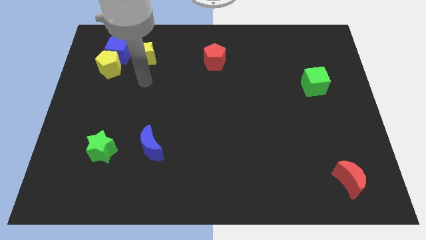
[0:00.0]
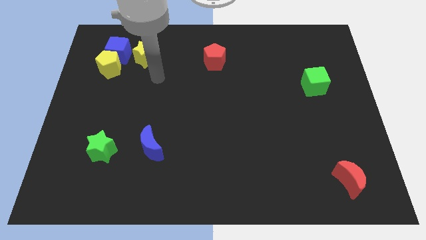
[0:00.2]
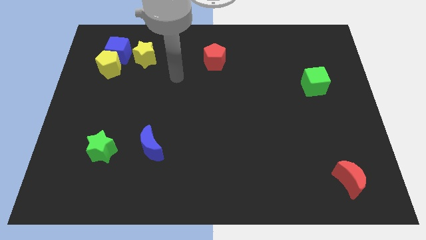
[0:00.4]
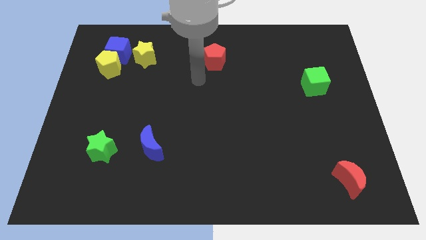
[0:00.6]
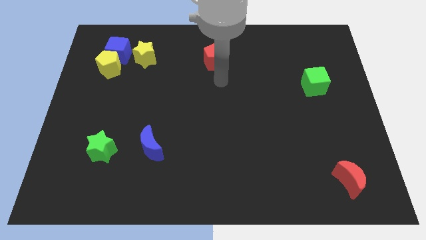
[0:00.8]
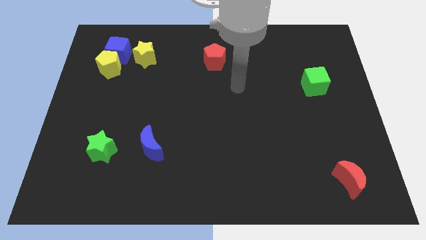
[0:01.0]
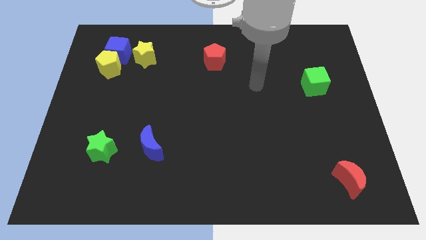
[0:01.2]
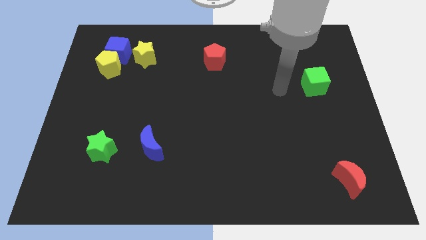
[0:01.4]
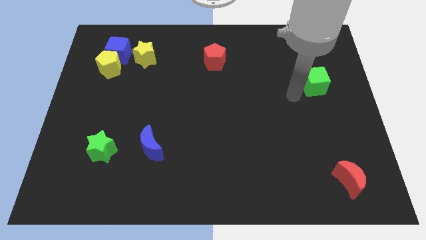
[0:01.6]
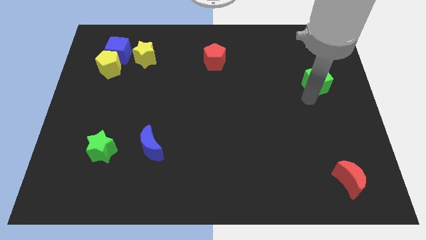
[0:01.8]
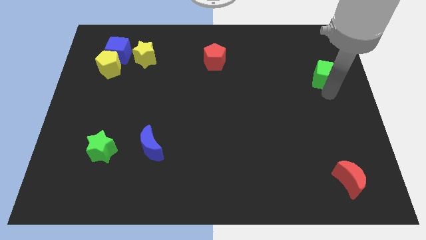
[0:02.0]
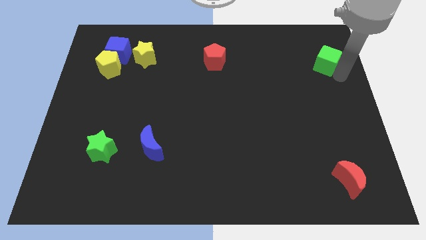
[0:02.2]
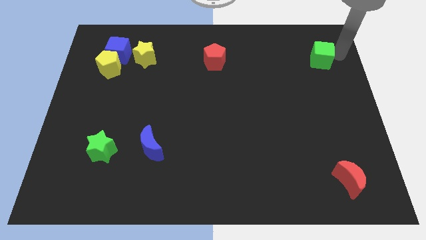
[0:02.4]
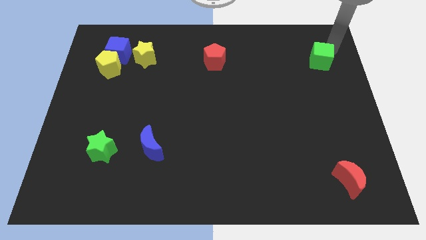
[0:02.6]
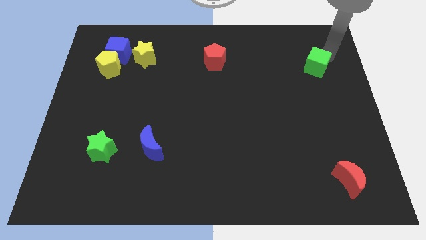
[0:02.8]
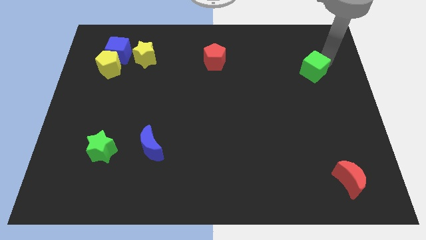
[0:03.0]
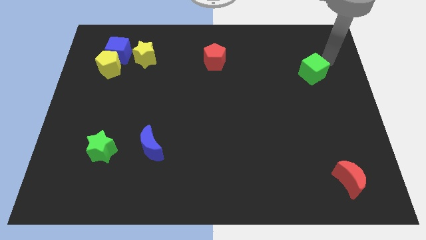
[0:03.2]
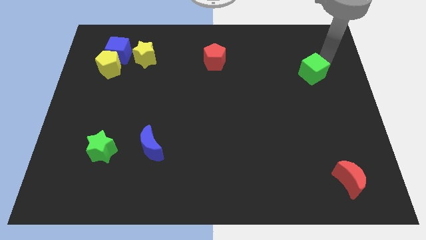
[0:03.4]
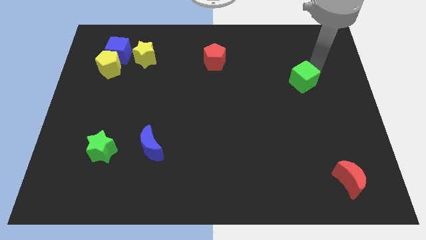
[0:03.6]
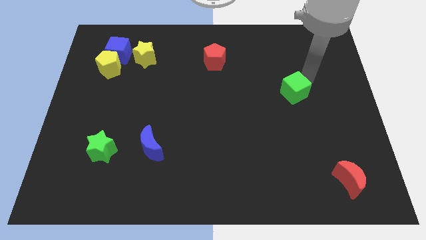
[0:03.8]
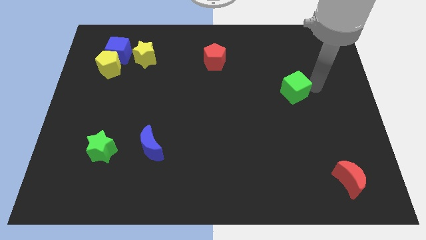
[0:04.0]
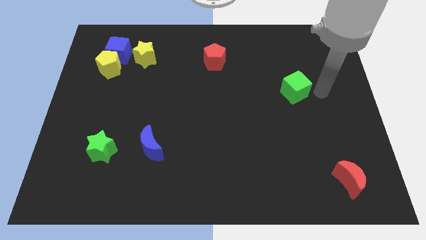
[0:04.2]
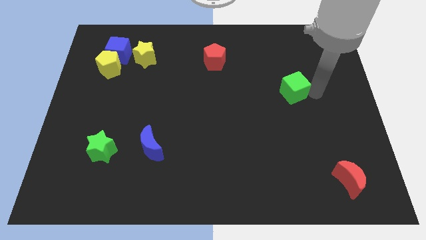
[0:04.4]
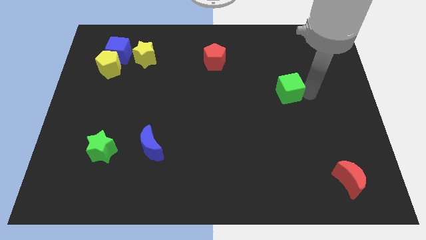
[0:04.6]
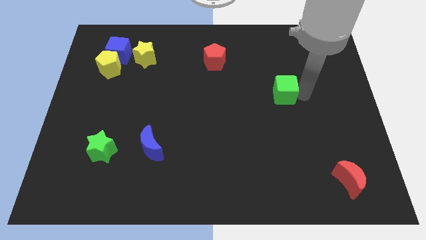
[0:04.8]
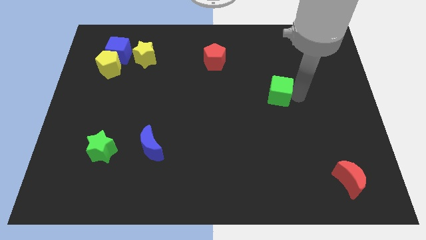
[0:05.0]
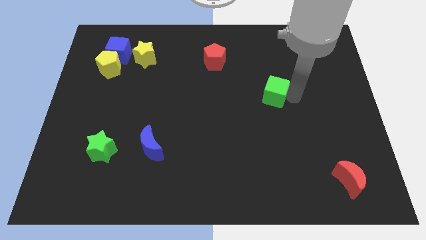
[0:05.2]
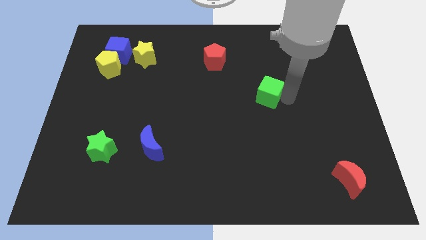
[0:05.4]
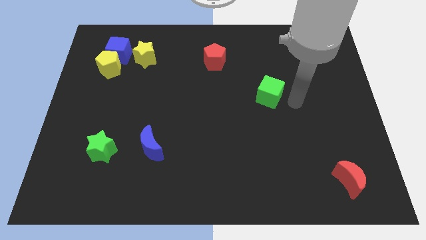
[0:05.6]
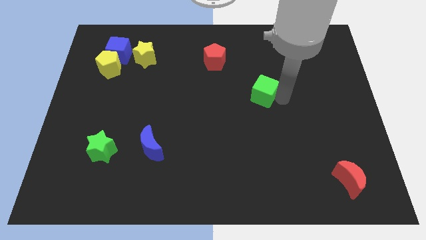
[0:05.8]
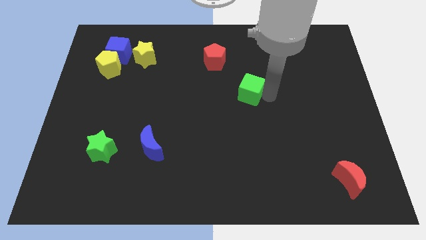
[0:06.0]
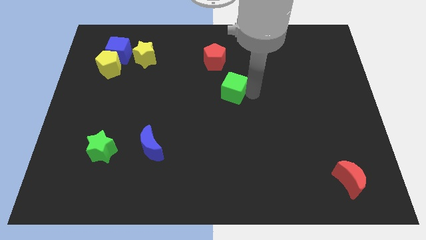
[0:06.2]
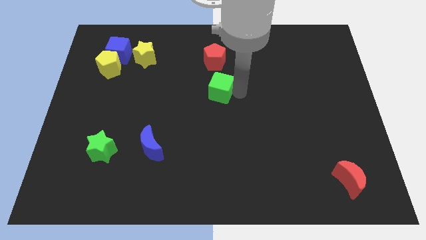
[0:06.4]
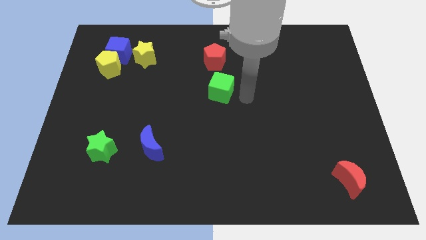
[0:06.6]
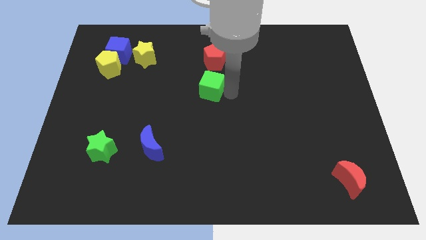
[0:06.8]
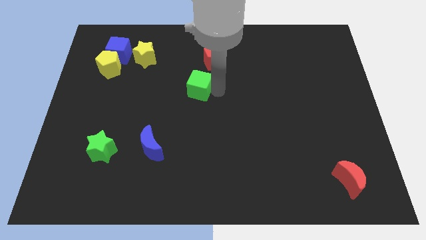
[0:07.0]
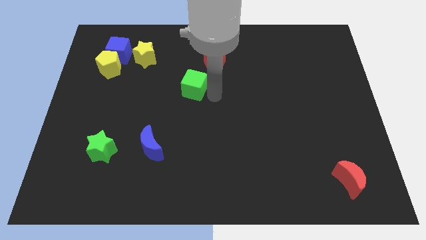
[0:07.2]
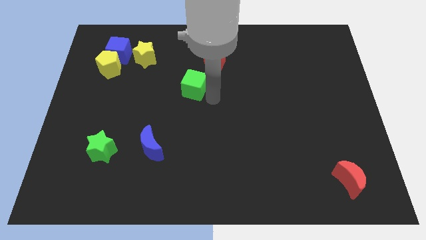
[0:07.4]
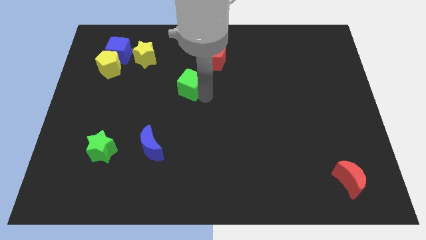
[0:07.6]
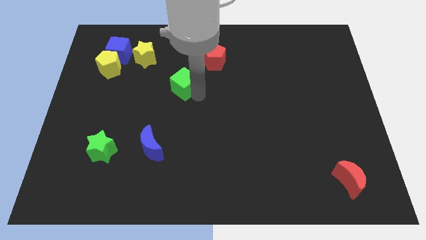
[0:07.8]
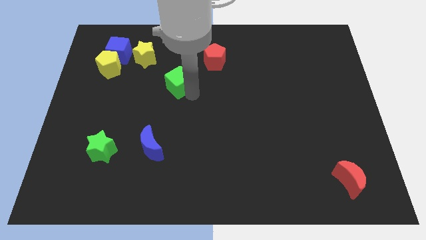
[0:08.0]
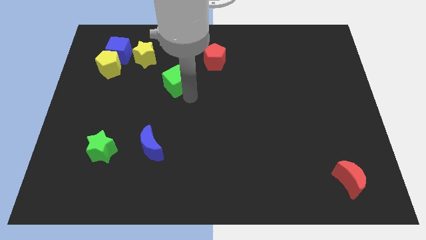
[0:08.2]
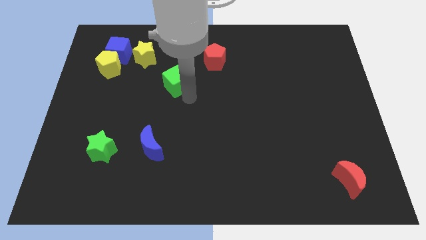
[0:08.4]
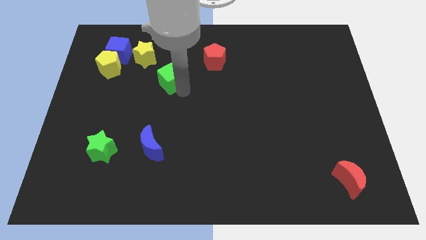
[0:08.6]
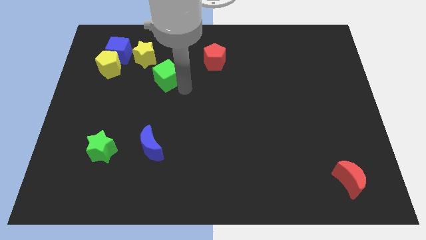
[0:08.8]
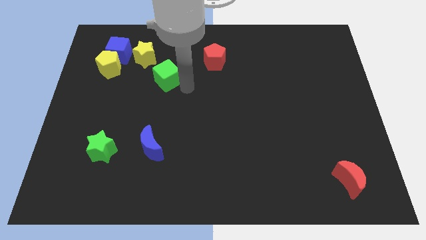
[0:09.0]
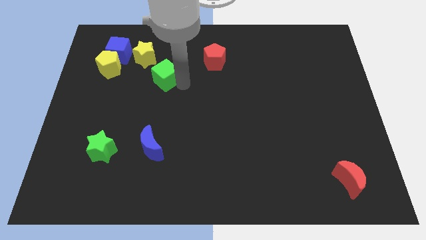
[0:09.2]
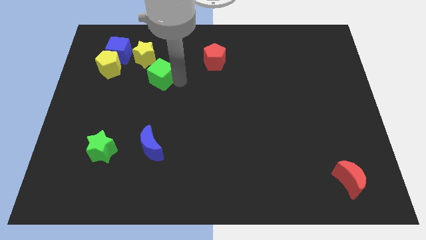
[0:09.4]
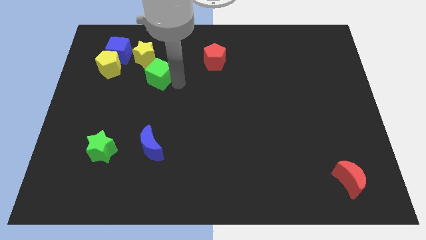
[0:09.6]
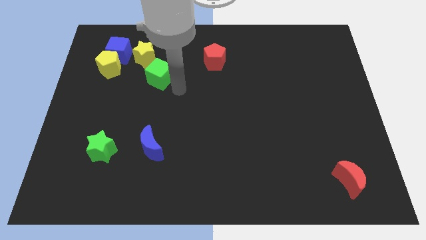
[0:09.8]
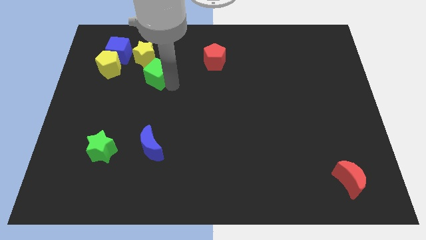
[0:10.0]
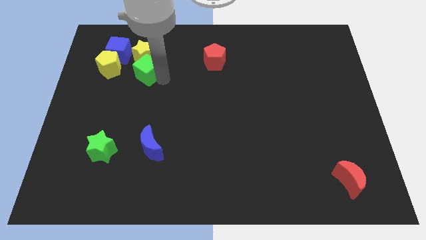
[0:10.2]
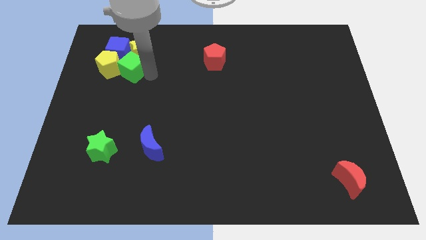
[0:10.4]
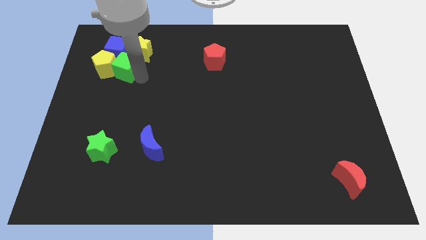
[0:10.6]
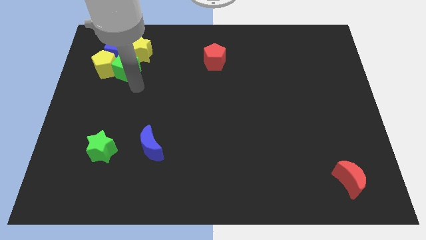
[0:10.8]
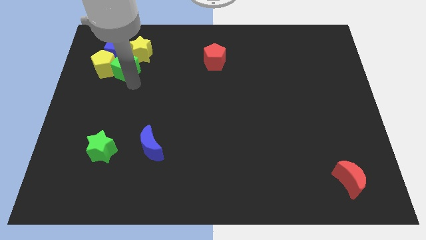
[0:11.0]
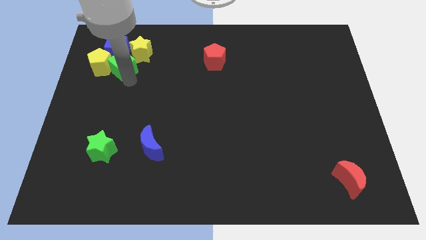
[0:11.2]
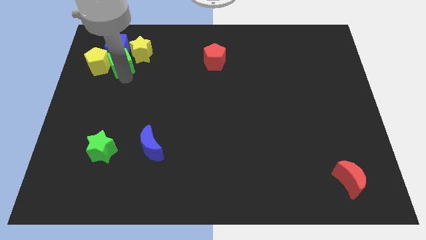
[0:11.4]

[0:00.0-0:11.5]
push the green cube close to the blue cube

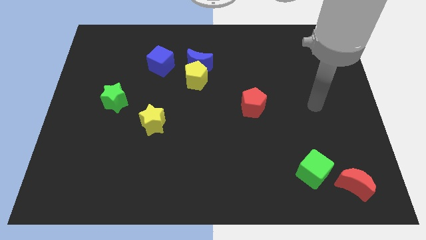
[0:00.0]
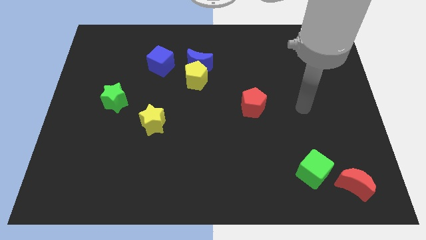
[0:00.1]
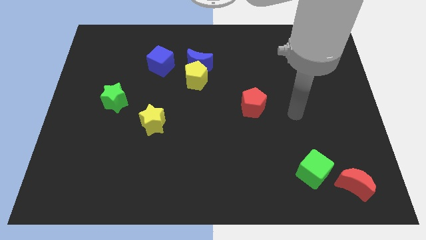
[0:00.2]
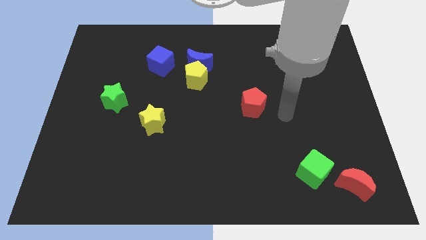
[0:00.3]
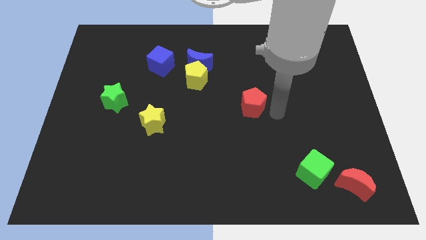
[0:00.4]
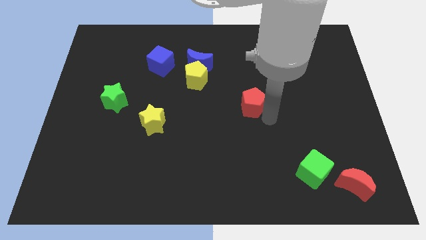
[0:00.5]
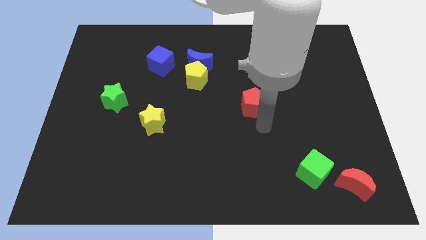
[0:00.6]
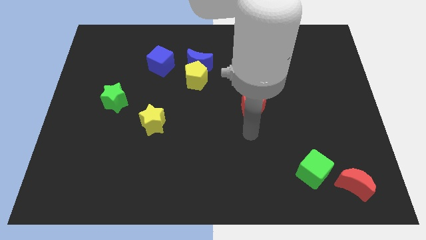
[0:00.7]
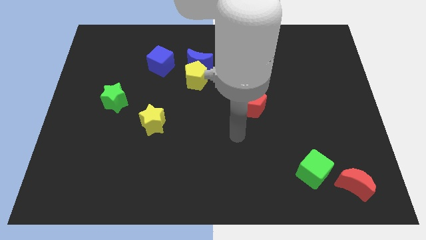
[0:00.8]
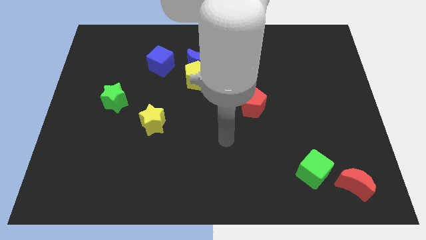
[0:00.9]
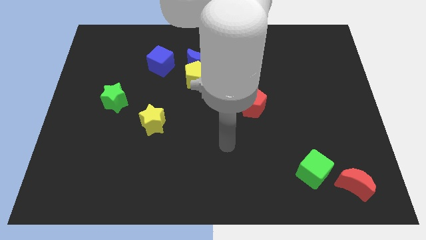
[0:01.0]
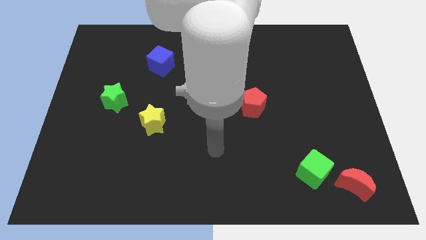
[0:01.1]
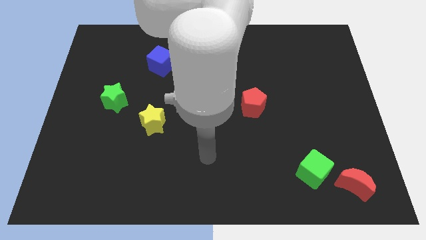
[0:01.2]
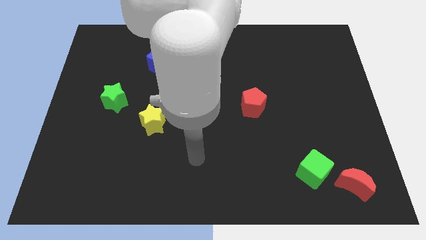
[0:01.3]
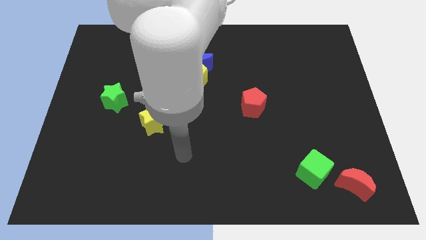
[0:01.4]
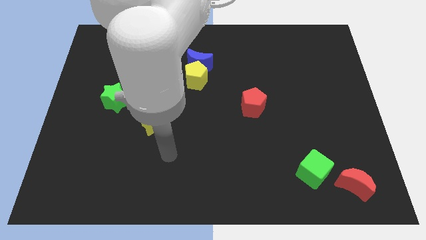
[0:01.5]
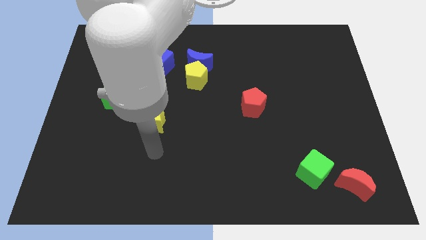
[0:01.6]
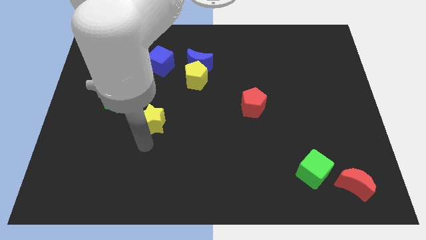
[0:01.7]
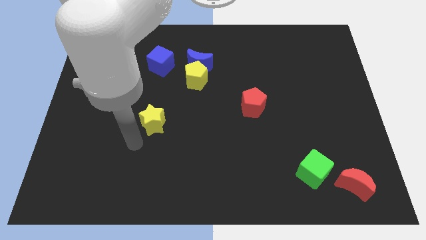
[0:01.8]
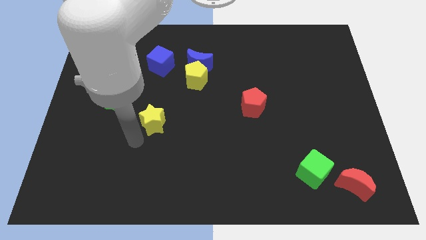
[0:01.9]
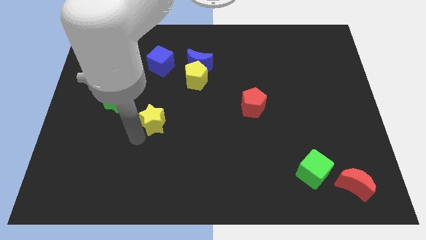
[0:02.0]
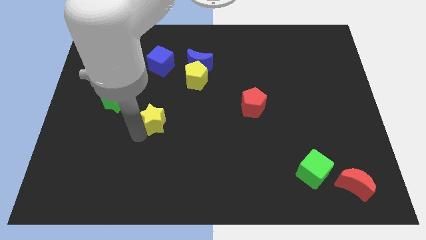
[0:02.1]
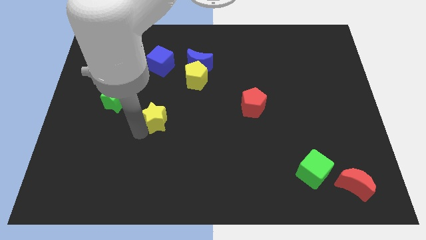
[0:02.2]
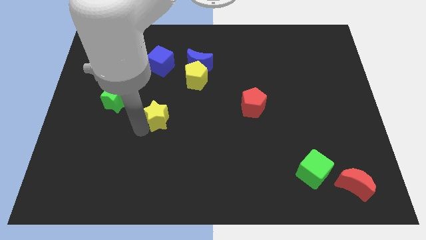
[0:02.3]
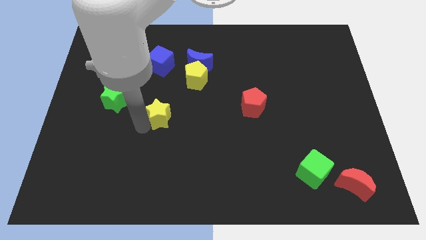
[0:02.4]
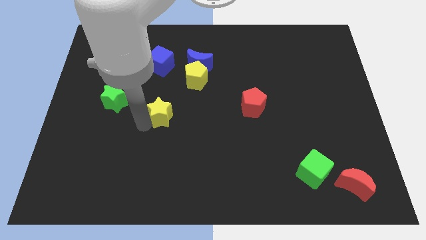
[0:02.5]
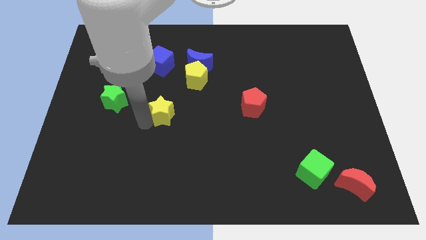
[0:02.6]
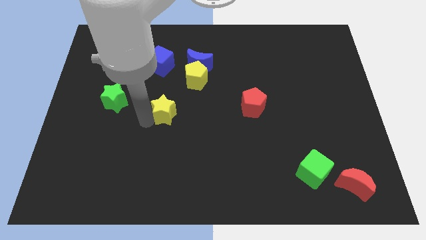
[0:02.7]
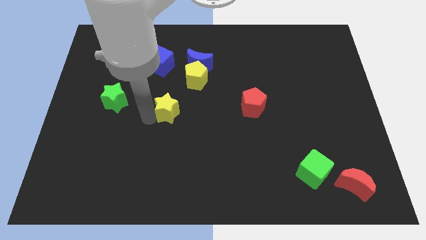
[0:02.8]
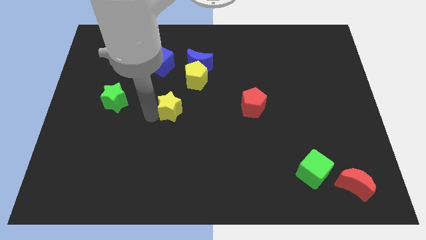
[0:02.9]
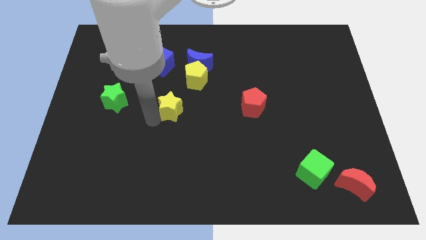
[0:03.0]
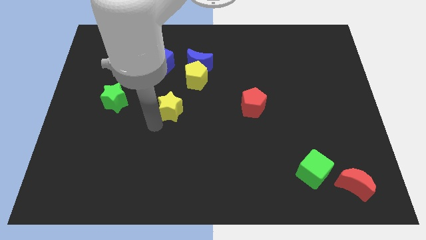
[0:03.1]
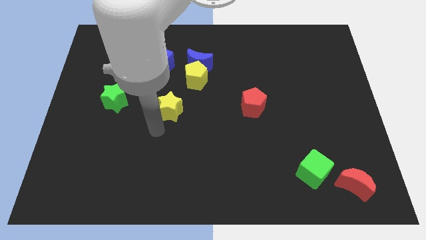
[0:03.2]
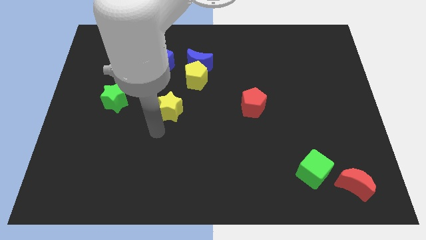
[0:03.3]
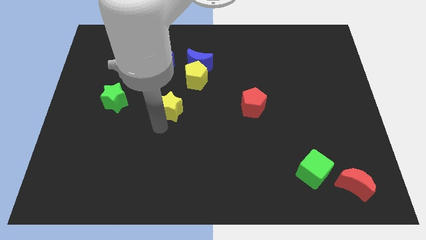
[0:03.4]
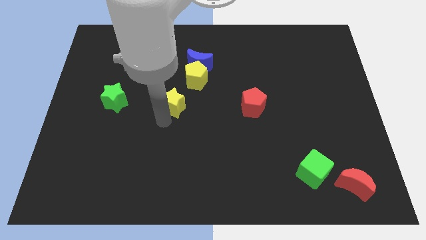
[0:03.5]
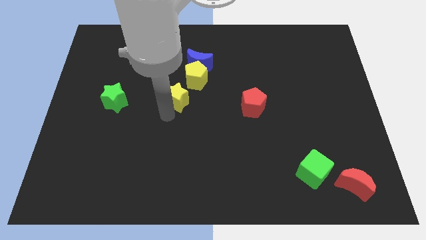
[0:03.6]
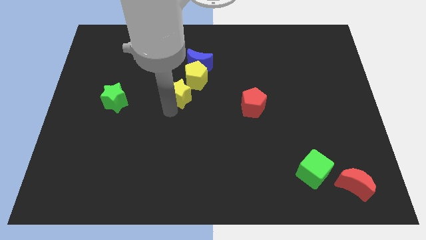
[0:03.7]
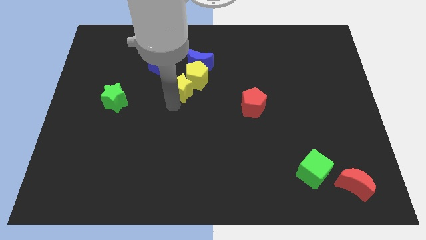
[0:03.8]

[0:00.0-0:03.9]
put the yellow star next to the yellow pentagon
